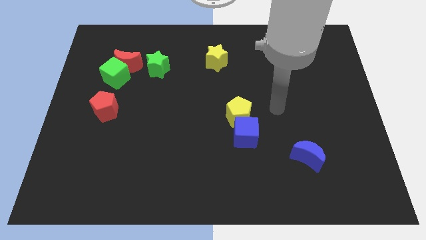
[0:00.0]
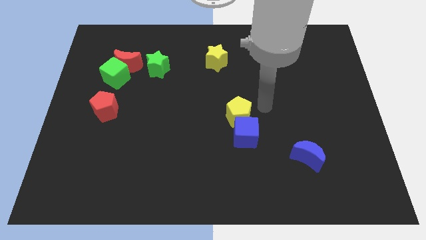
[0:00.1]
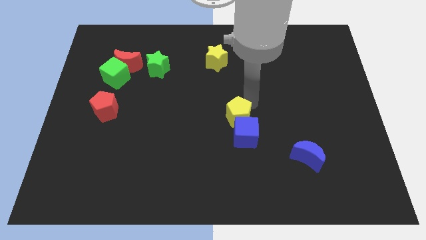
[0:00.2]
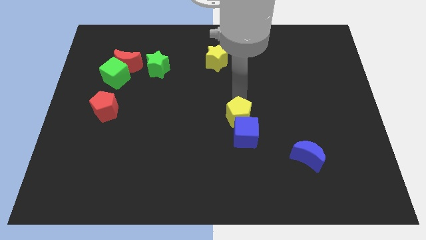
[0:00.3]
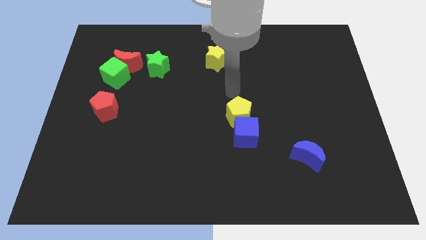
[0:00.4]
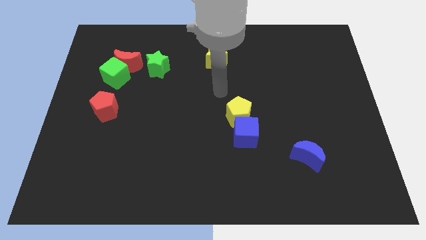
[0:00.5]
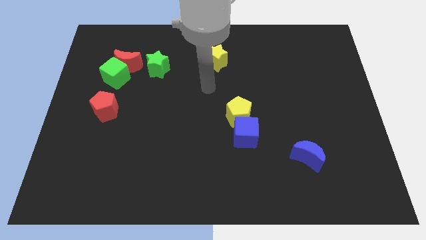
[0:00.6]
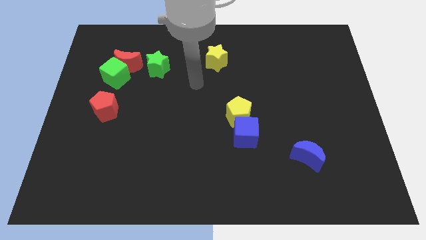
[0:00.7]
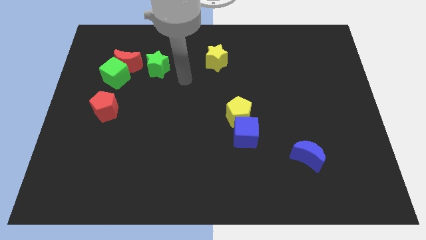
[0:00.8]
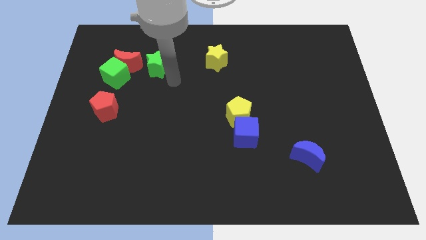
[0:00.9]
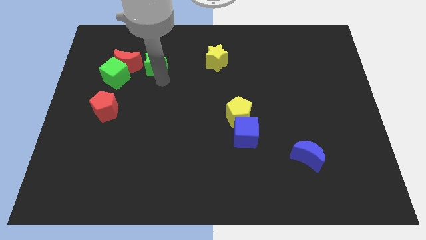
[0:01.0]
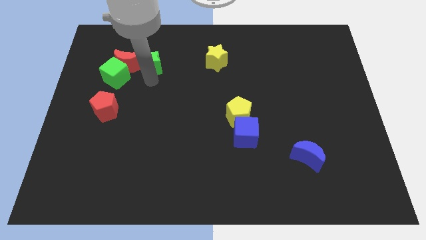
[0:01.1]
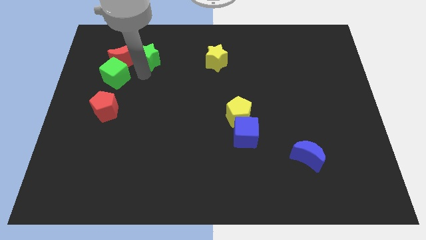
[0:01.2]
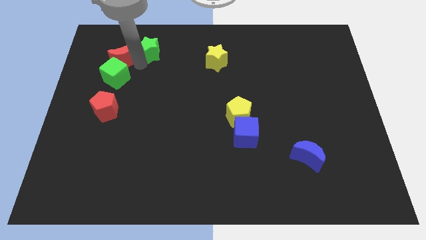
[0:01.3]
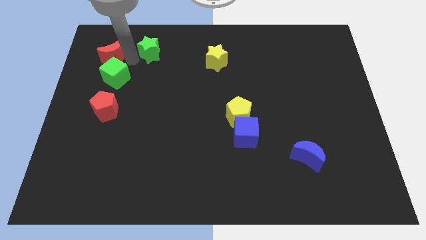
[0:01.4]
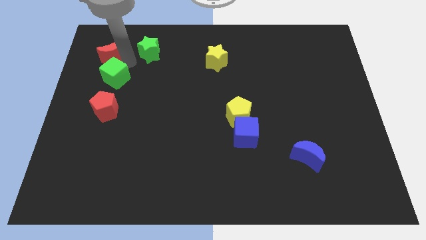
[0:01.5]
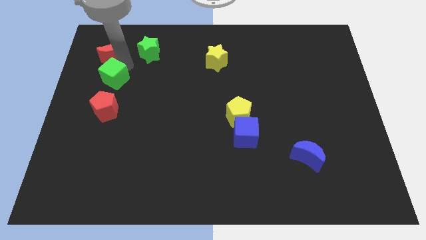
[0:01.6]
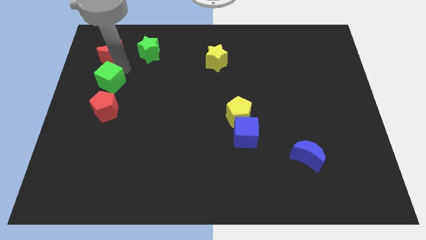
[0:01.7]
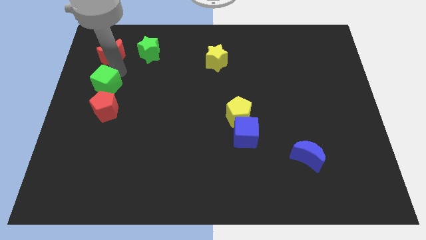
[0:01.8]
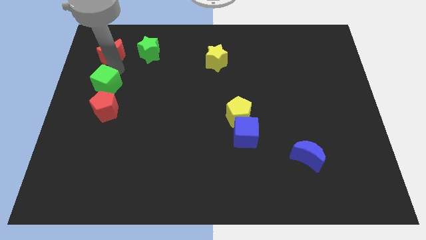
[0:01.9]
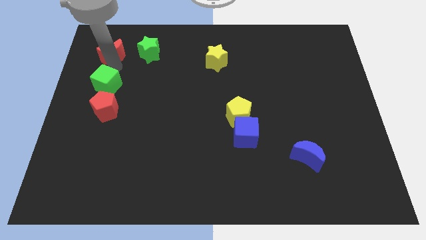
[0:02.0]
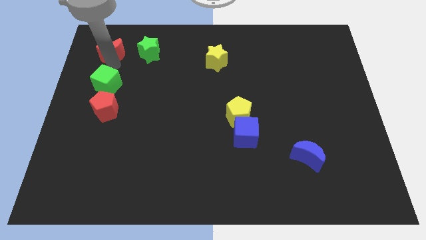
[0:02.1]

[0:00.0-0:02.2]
pull the green cube apart from the red moon

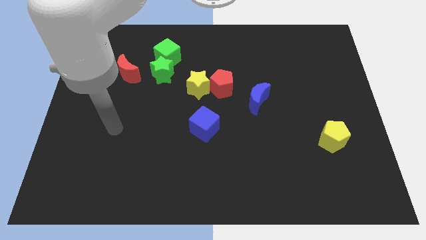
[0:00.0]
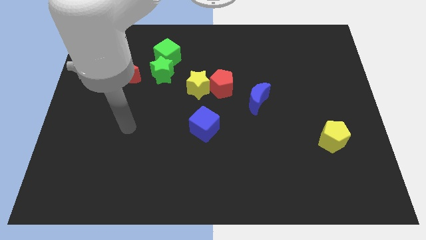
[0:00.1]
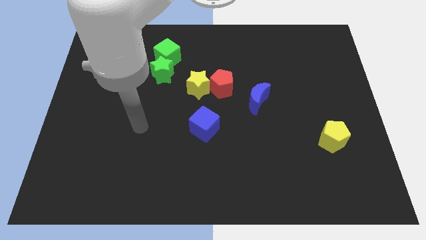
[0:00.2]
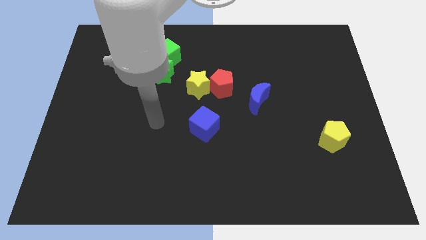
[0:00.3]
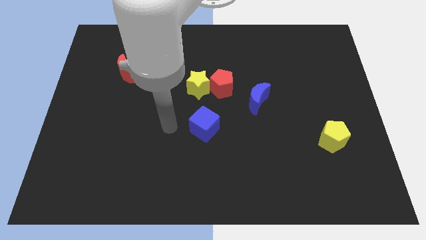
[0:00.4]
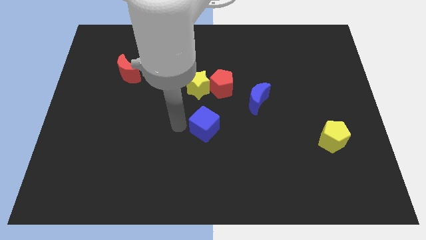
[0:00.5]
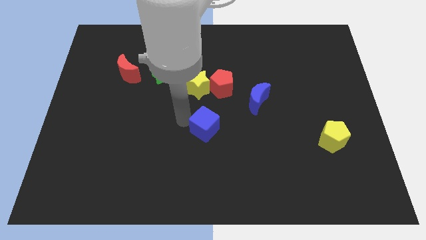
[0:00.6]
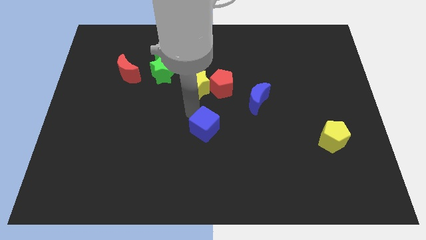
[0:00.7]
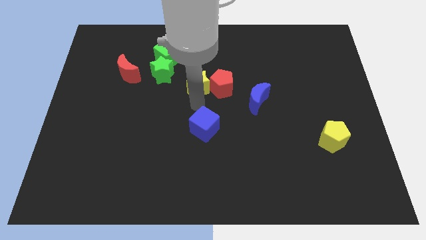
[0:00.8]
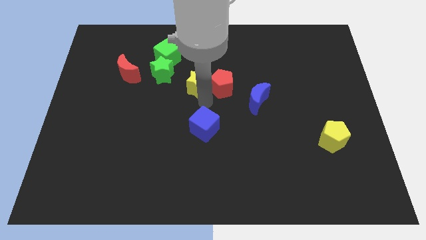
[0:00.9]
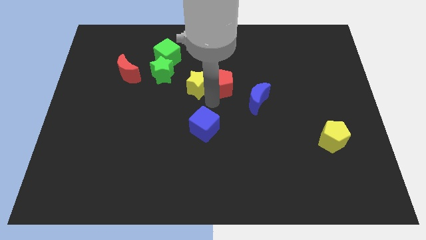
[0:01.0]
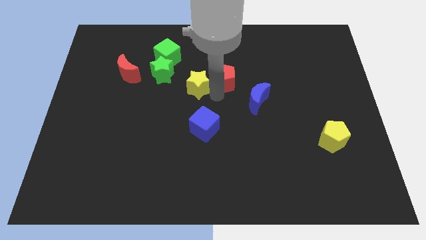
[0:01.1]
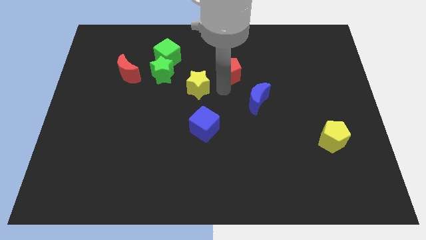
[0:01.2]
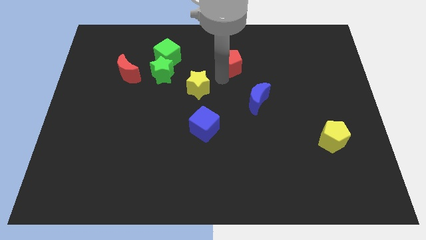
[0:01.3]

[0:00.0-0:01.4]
separate the yellow star from the red pentagon

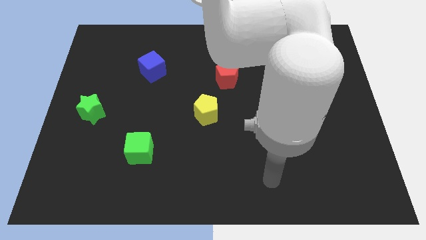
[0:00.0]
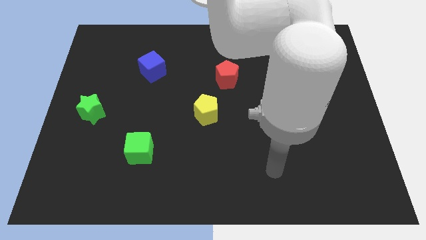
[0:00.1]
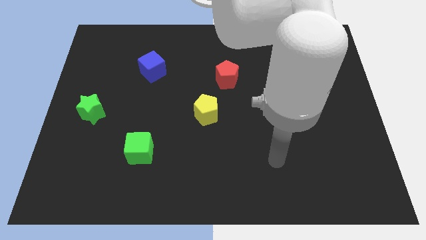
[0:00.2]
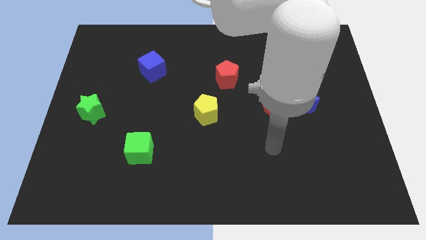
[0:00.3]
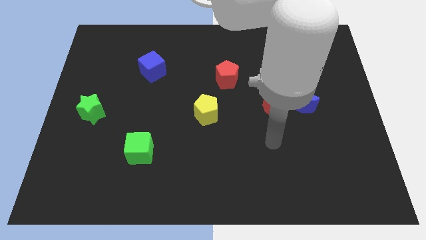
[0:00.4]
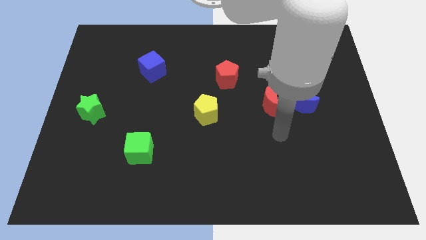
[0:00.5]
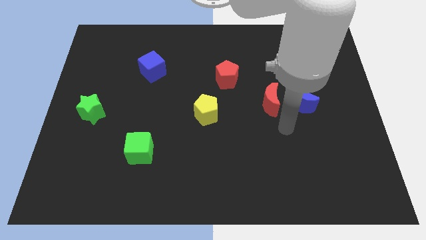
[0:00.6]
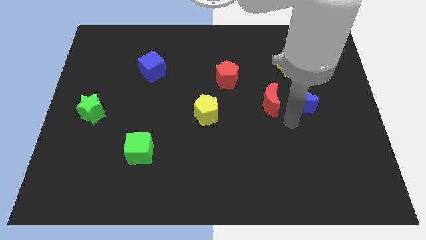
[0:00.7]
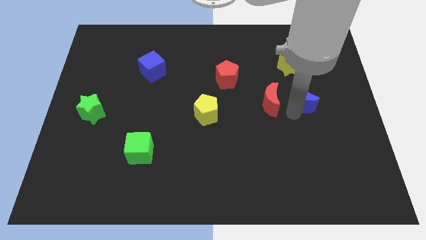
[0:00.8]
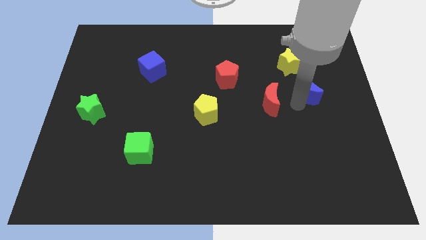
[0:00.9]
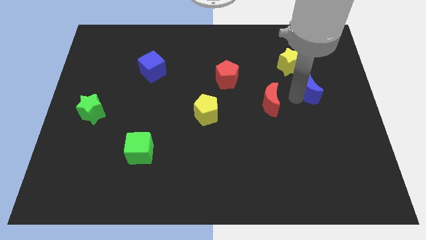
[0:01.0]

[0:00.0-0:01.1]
separate the red moon from the blue moon

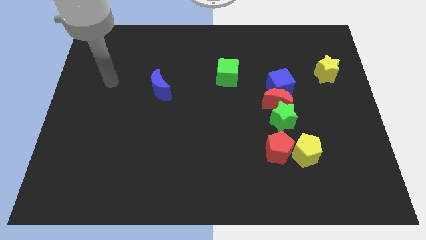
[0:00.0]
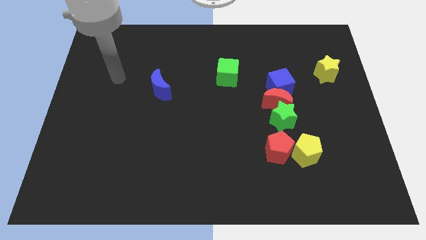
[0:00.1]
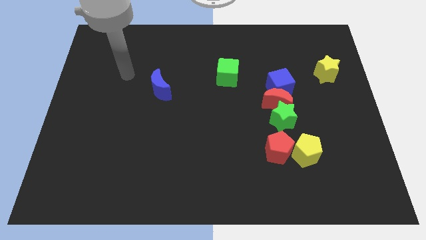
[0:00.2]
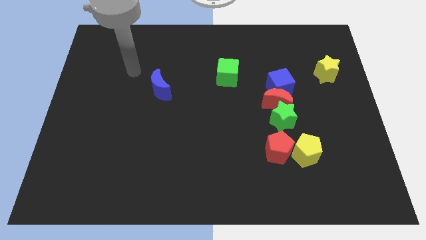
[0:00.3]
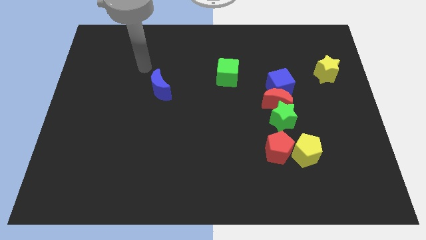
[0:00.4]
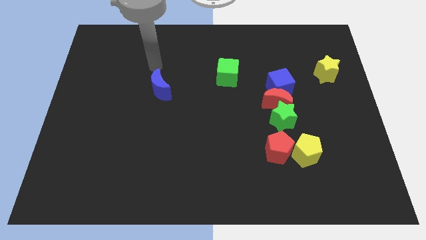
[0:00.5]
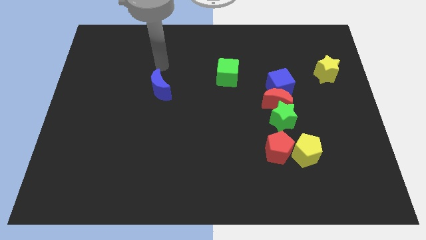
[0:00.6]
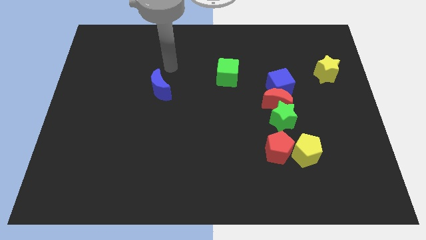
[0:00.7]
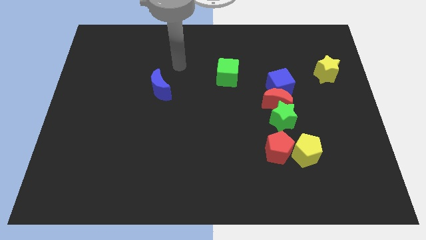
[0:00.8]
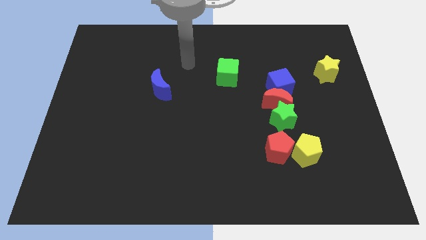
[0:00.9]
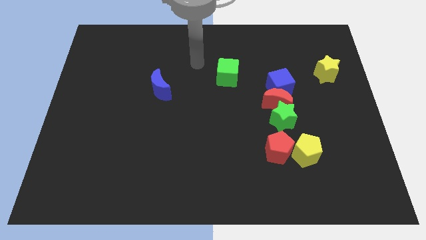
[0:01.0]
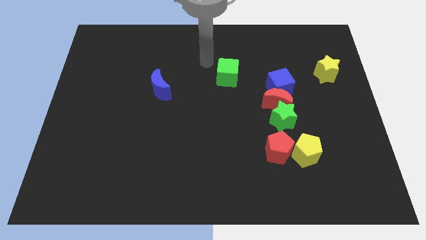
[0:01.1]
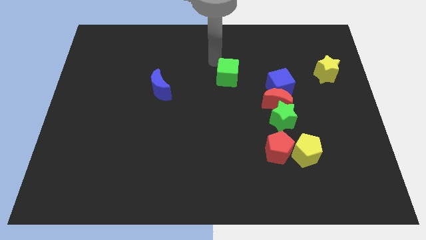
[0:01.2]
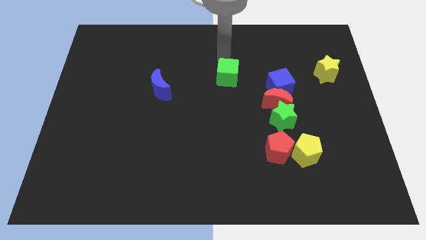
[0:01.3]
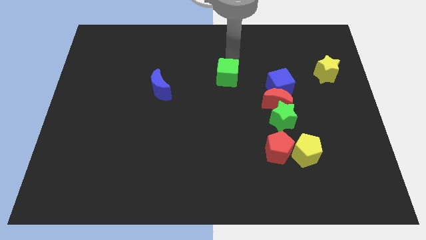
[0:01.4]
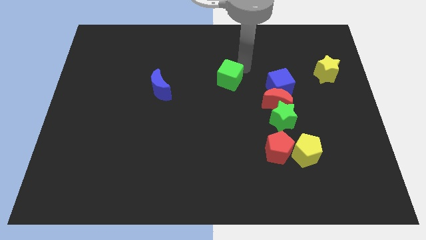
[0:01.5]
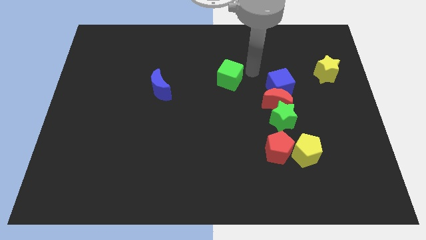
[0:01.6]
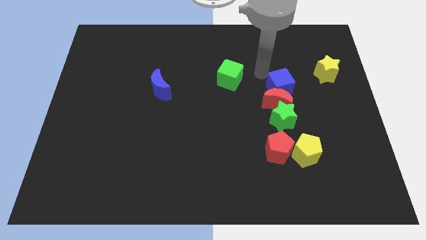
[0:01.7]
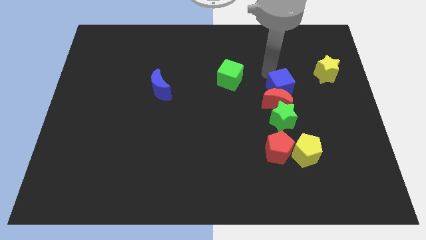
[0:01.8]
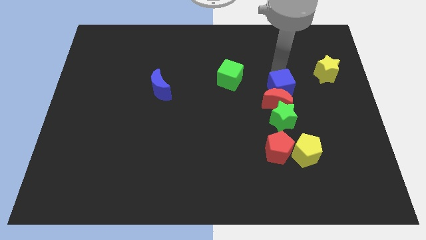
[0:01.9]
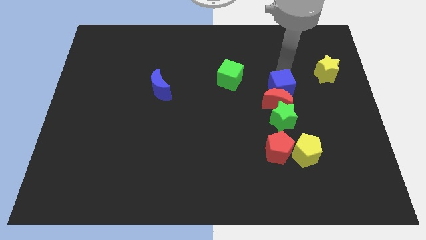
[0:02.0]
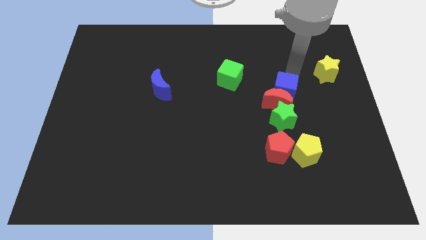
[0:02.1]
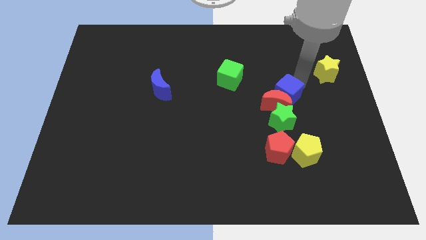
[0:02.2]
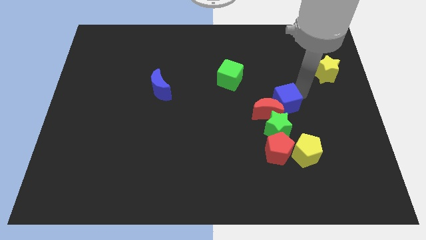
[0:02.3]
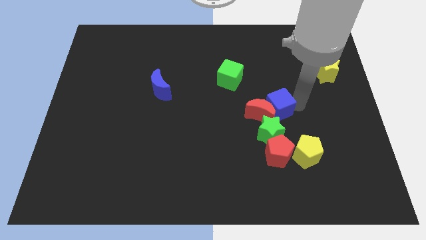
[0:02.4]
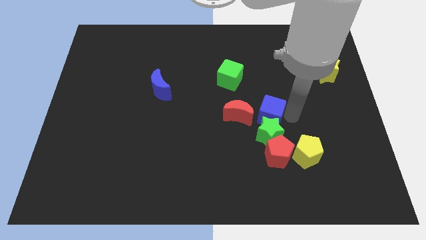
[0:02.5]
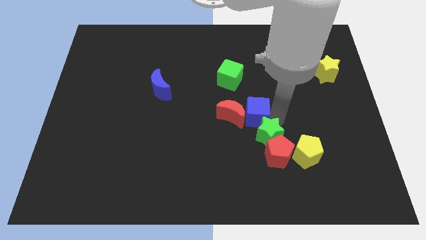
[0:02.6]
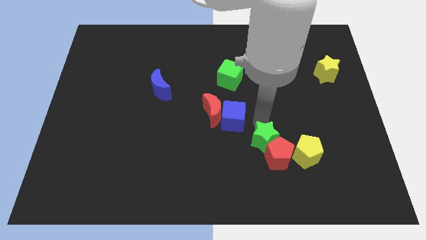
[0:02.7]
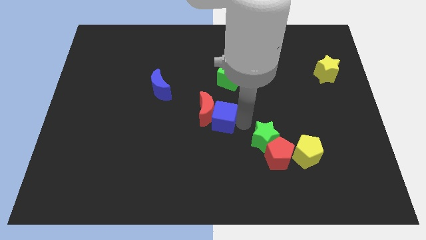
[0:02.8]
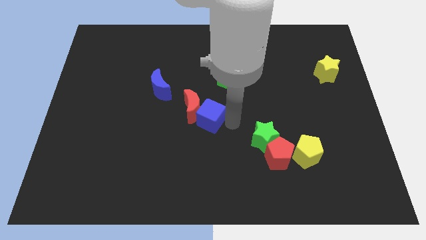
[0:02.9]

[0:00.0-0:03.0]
separate the red moon from the green star and blue cube

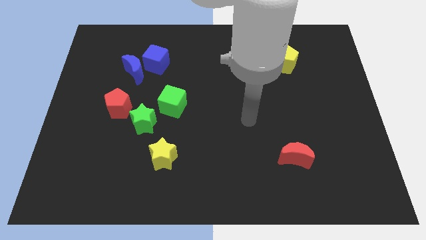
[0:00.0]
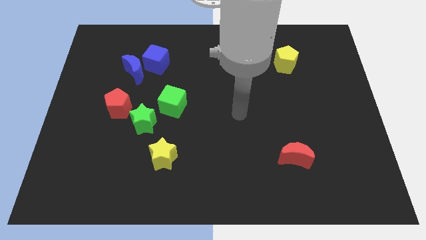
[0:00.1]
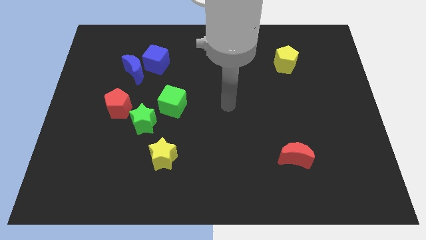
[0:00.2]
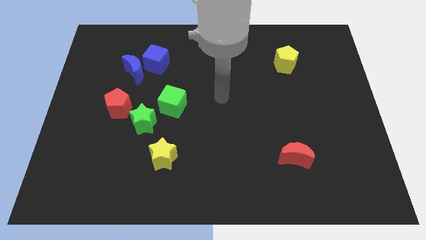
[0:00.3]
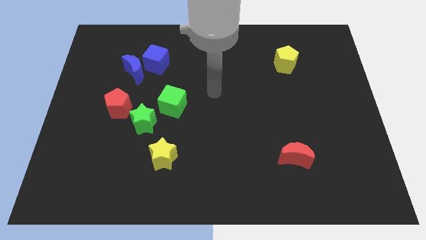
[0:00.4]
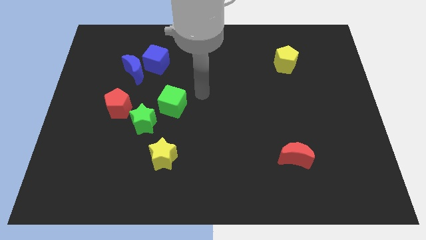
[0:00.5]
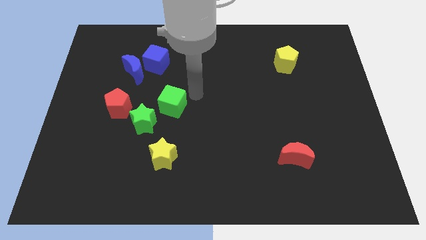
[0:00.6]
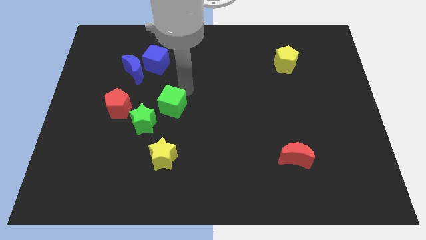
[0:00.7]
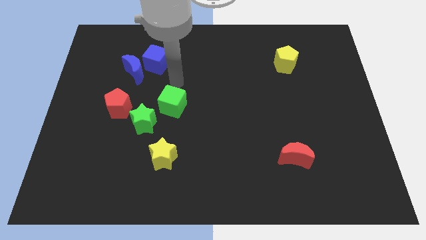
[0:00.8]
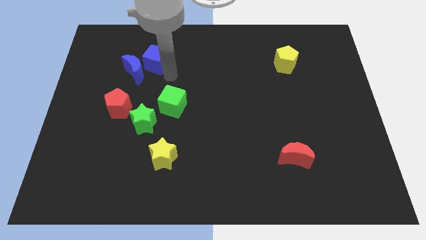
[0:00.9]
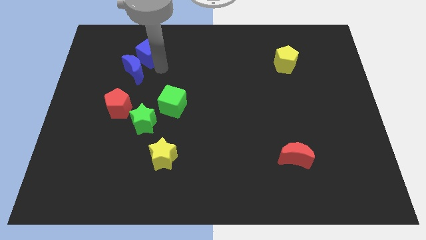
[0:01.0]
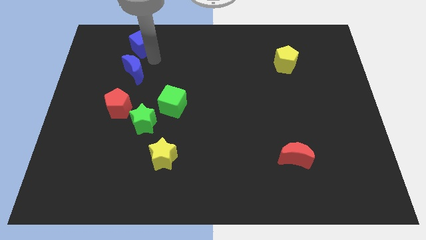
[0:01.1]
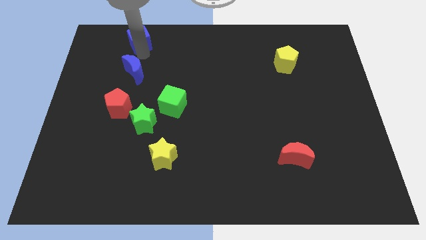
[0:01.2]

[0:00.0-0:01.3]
pull the blue moon apart from the blue cube

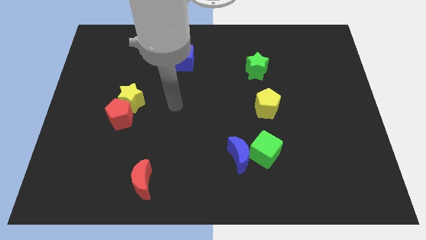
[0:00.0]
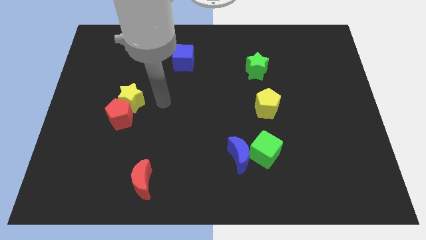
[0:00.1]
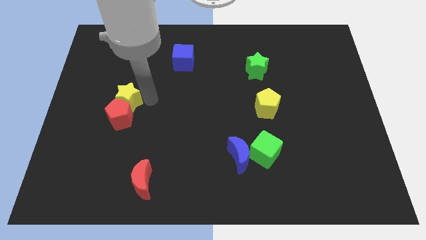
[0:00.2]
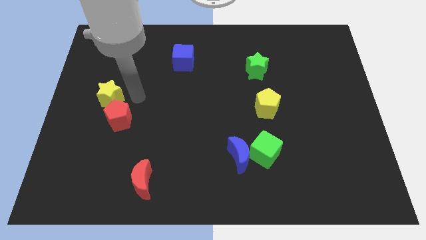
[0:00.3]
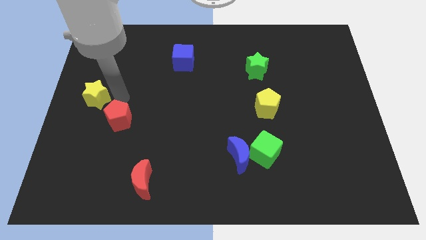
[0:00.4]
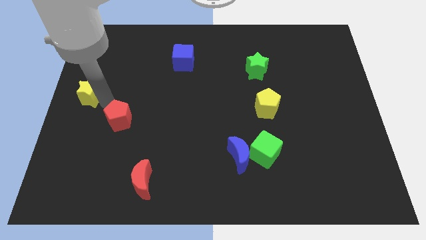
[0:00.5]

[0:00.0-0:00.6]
move the red pentagon away from the yellow star
